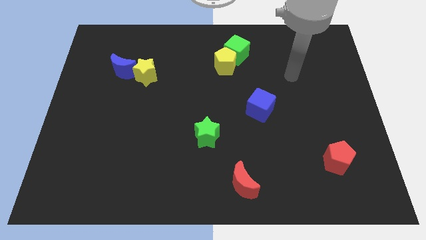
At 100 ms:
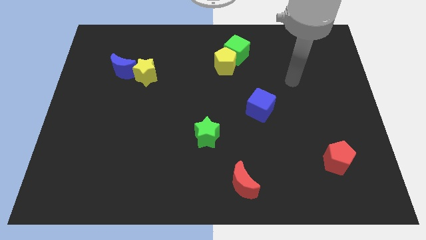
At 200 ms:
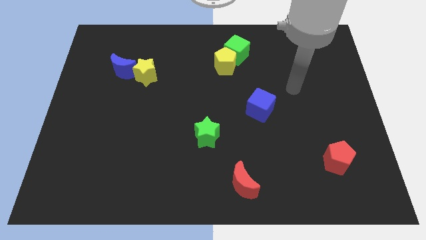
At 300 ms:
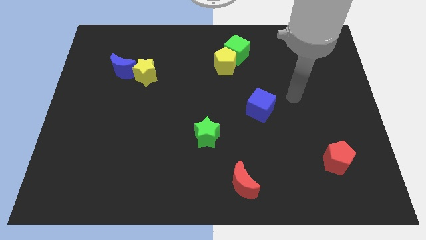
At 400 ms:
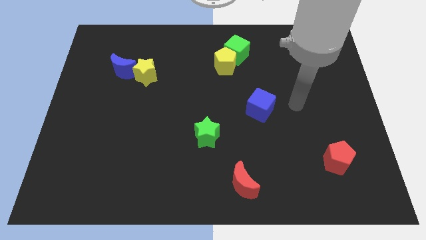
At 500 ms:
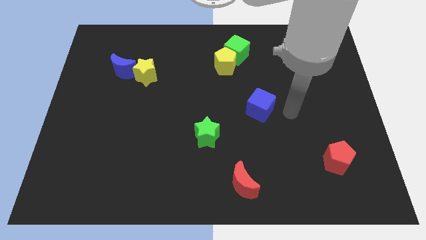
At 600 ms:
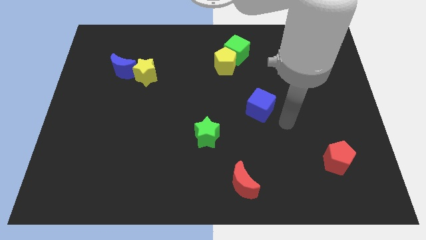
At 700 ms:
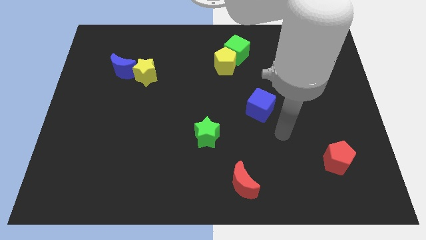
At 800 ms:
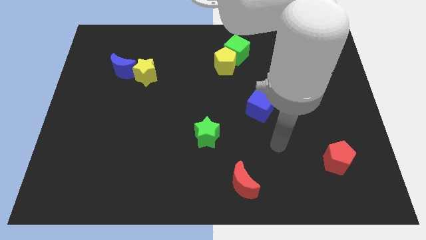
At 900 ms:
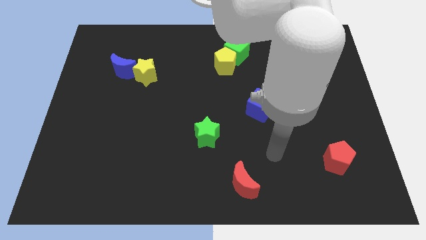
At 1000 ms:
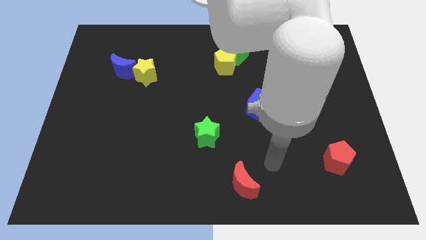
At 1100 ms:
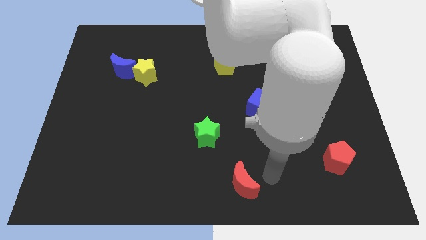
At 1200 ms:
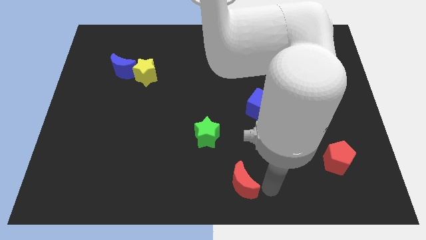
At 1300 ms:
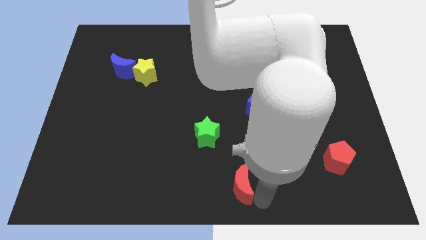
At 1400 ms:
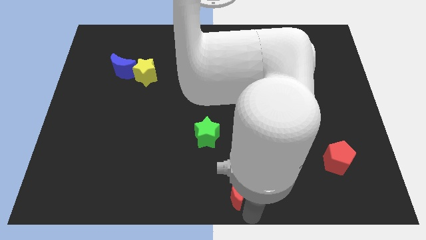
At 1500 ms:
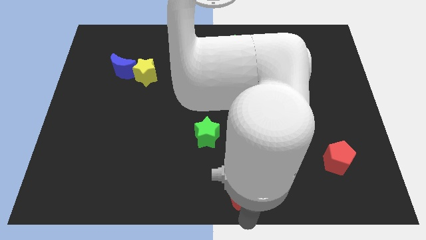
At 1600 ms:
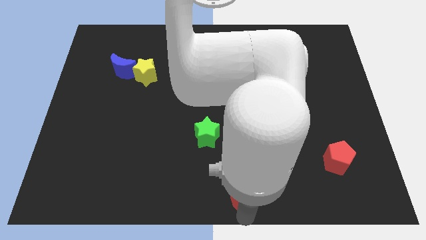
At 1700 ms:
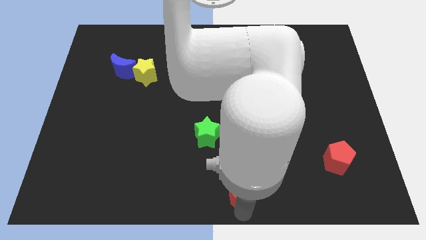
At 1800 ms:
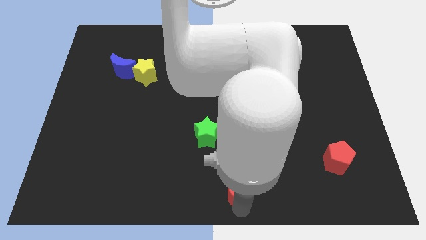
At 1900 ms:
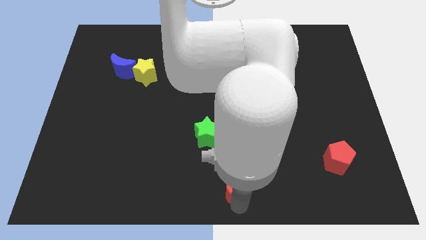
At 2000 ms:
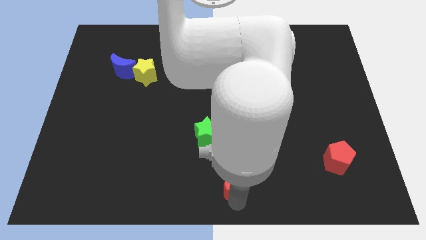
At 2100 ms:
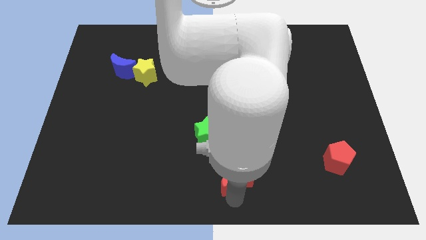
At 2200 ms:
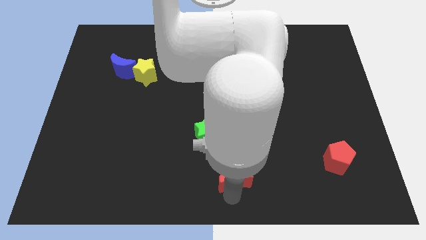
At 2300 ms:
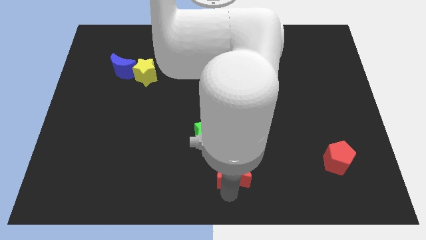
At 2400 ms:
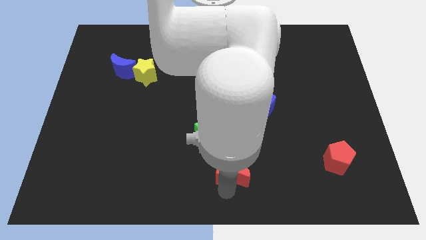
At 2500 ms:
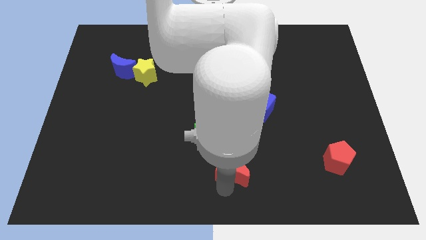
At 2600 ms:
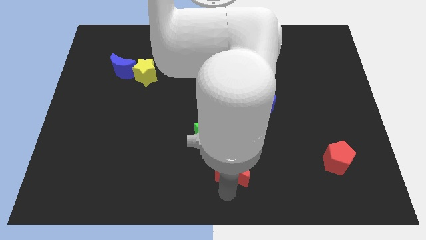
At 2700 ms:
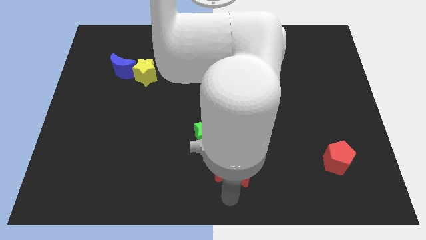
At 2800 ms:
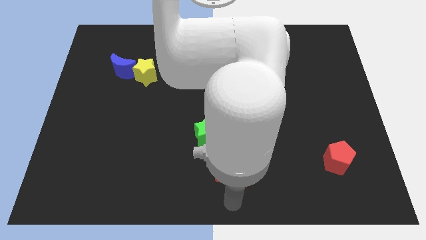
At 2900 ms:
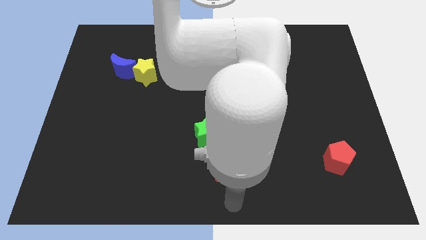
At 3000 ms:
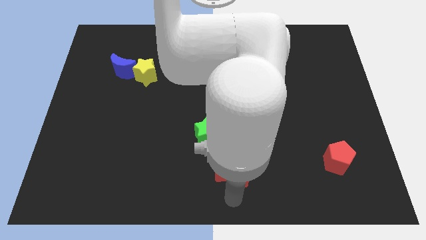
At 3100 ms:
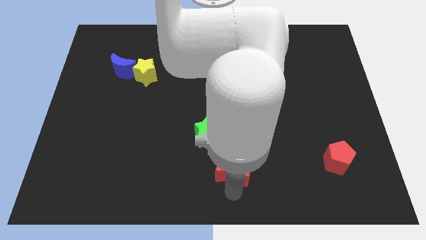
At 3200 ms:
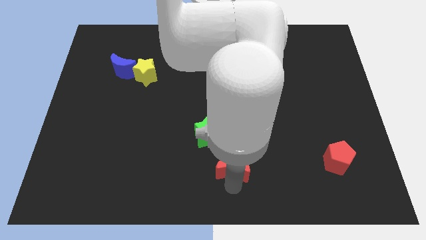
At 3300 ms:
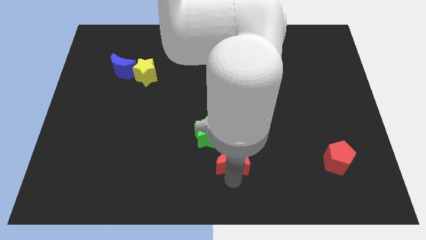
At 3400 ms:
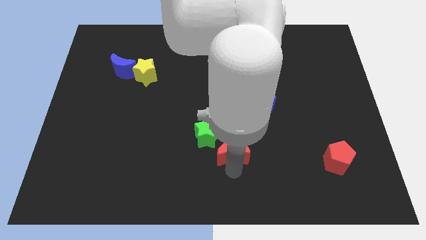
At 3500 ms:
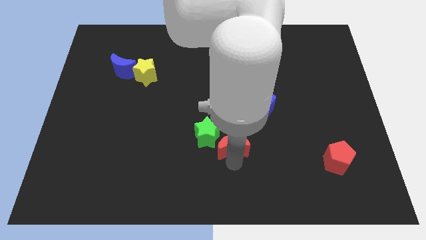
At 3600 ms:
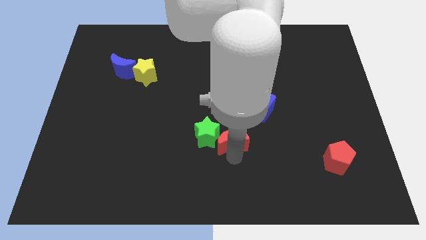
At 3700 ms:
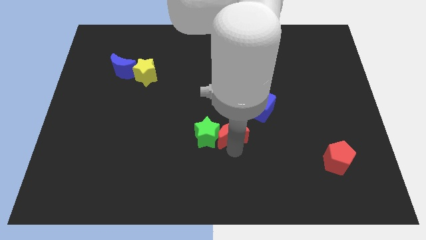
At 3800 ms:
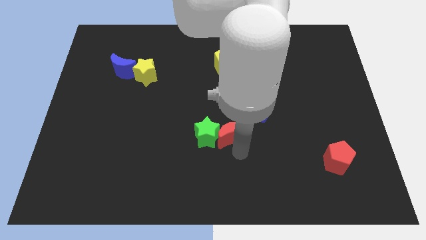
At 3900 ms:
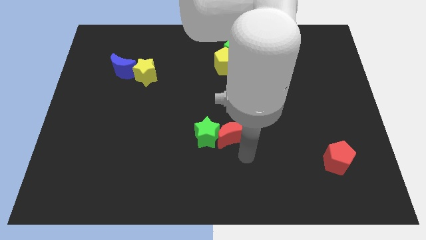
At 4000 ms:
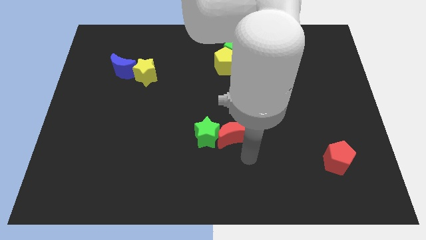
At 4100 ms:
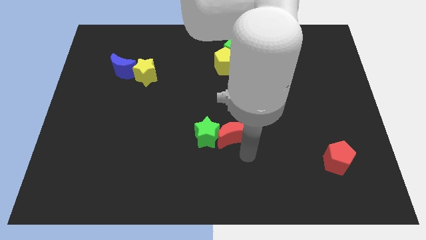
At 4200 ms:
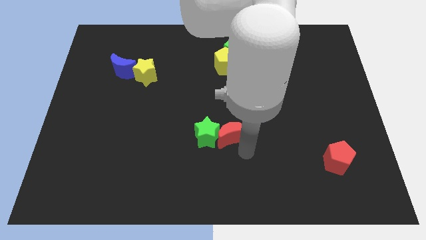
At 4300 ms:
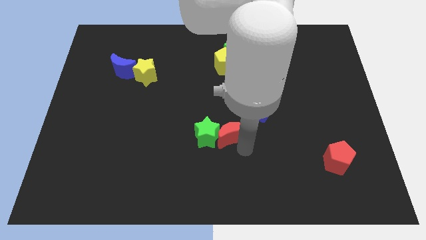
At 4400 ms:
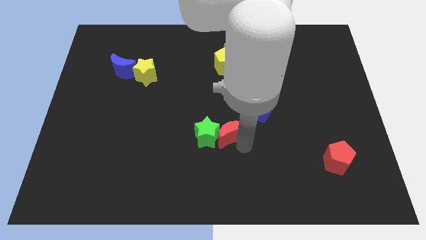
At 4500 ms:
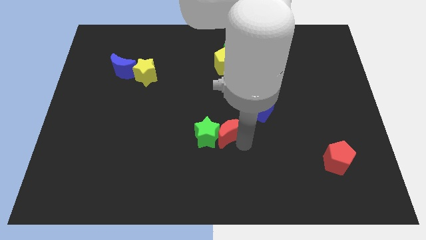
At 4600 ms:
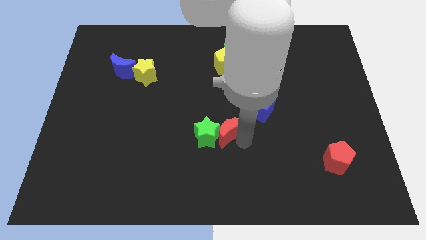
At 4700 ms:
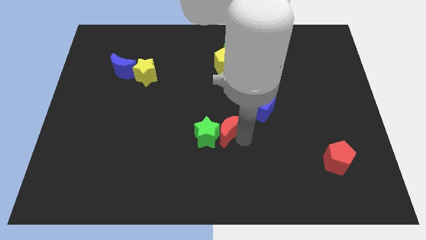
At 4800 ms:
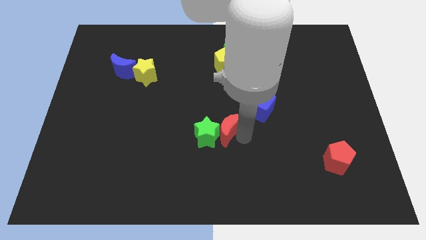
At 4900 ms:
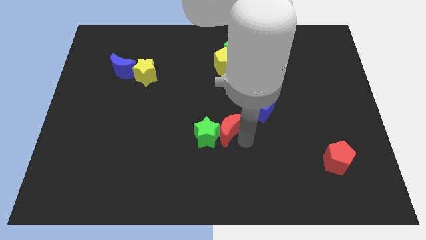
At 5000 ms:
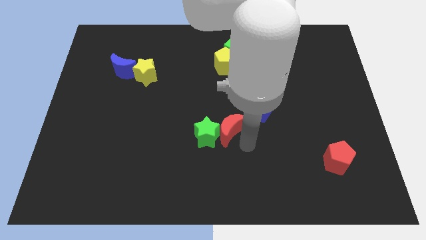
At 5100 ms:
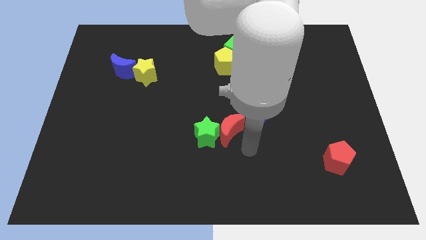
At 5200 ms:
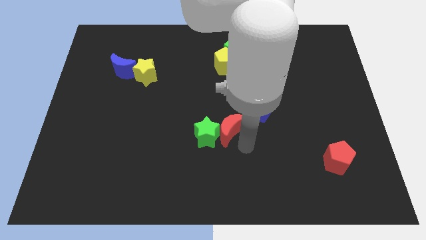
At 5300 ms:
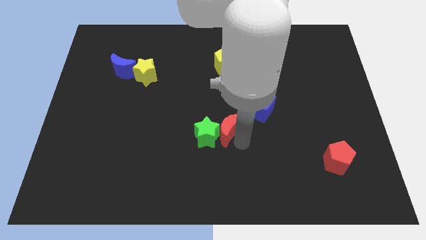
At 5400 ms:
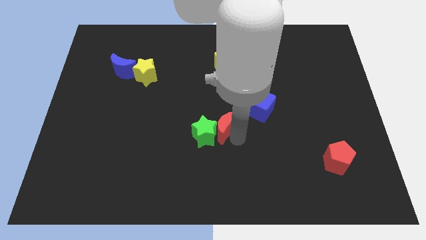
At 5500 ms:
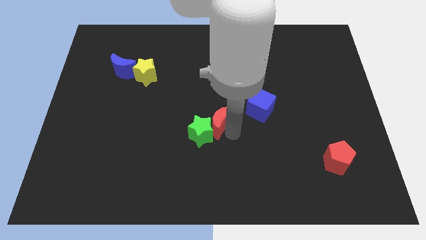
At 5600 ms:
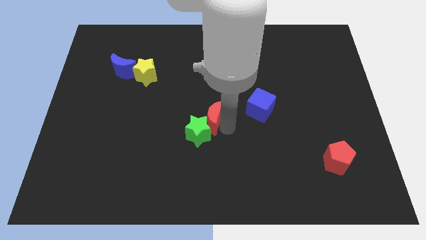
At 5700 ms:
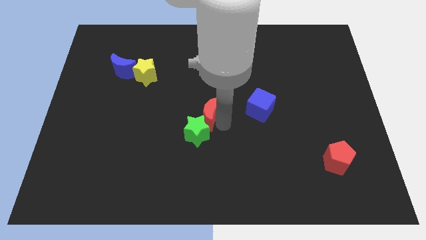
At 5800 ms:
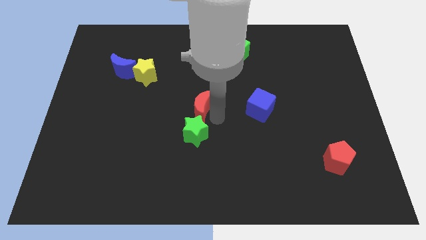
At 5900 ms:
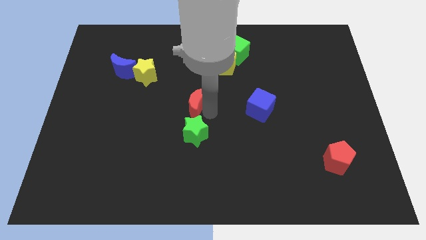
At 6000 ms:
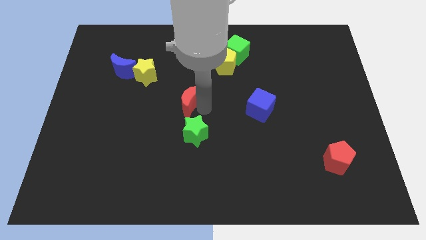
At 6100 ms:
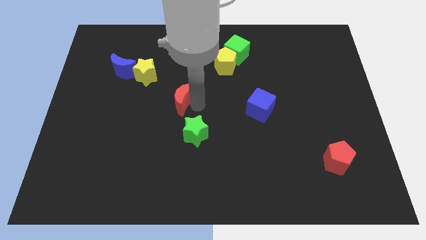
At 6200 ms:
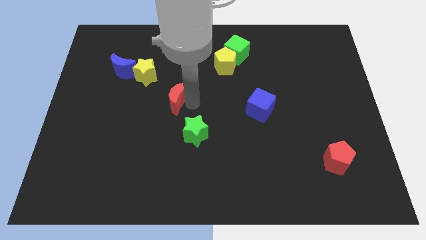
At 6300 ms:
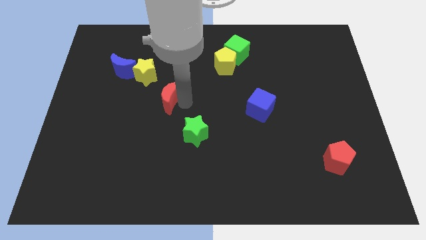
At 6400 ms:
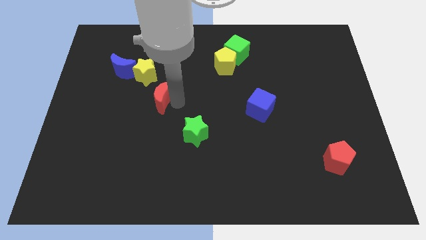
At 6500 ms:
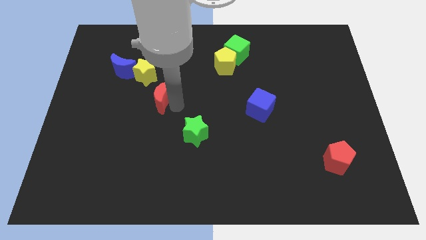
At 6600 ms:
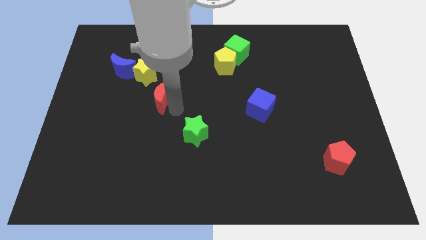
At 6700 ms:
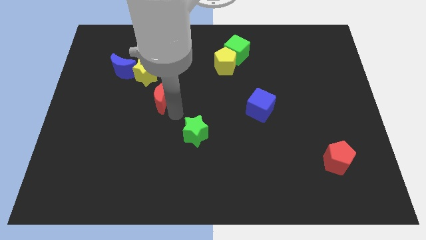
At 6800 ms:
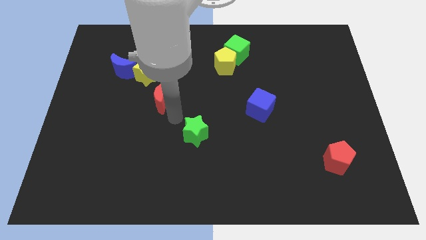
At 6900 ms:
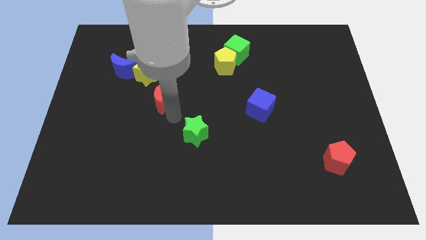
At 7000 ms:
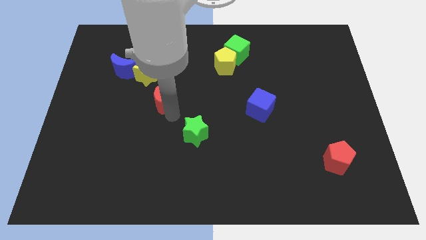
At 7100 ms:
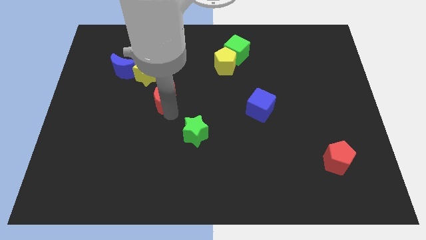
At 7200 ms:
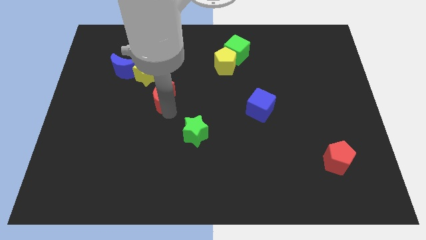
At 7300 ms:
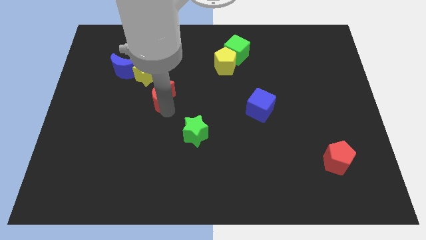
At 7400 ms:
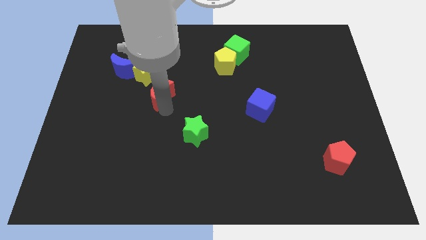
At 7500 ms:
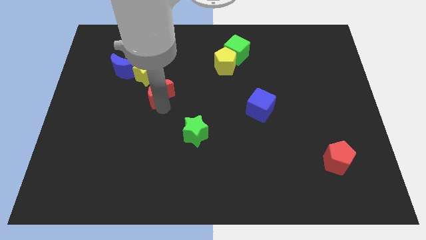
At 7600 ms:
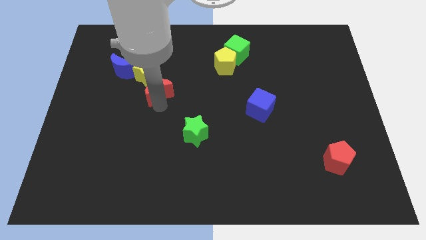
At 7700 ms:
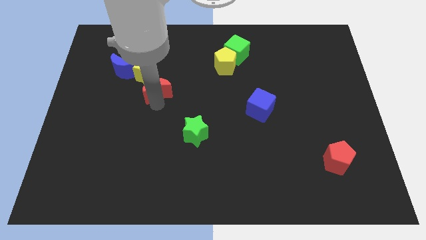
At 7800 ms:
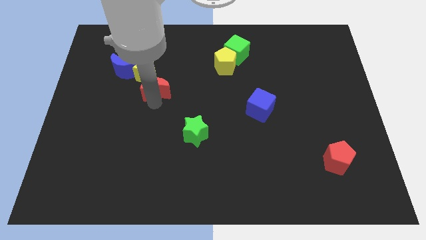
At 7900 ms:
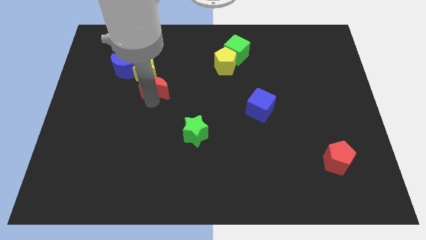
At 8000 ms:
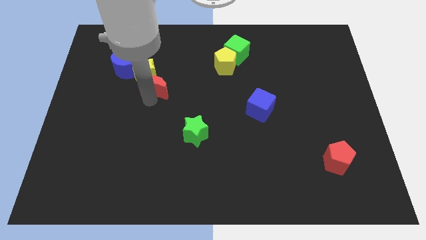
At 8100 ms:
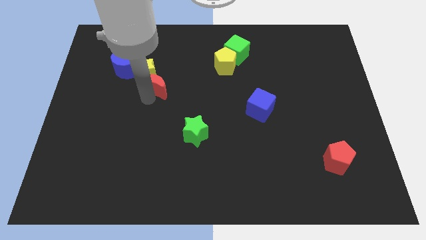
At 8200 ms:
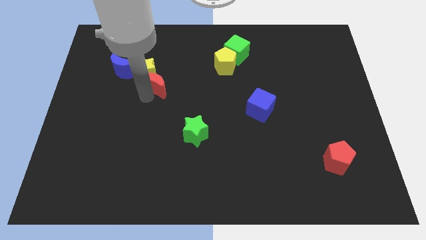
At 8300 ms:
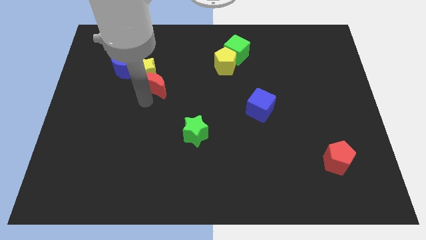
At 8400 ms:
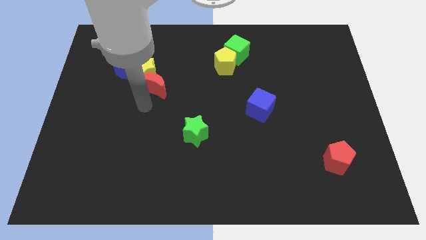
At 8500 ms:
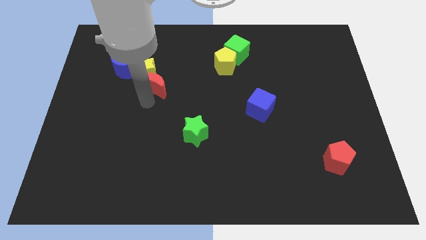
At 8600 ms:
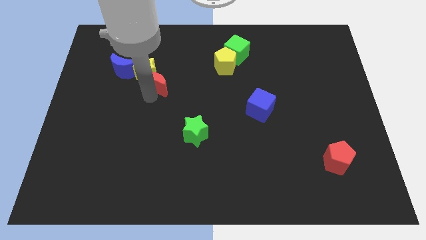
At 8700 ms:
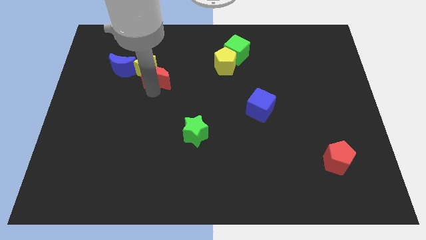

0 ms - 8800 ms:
slide the red moon to the right side of the blue moon
